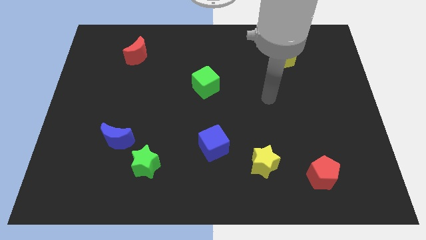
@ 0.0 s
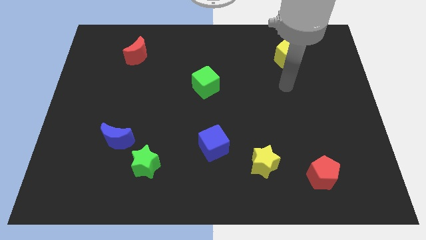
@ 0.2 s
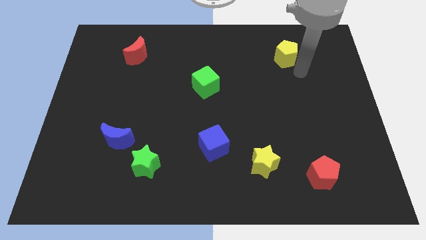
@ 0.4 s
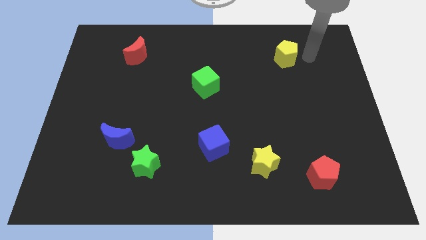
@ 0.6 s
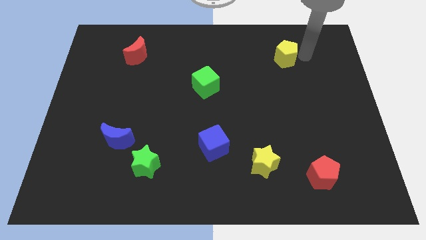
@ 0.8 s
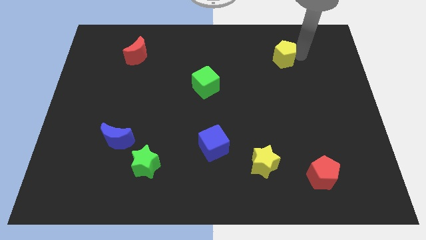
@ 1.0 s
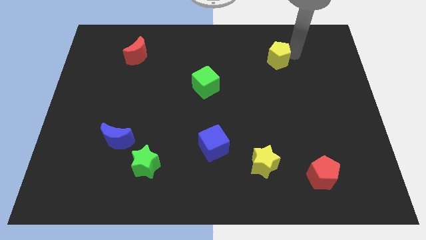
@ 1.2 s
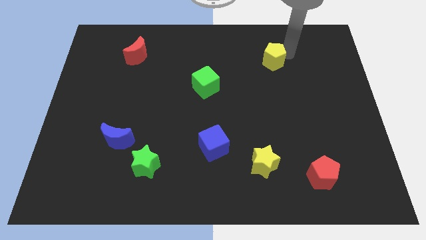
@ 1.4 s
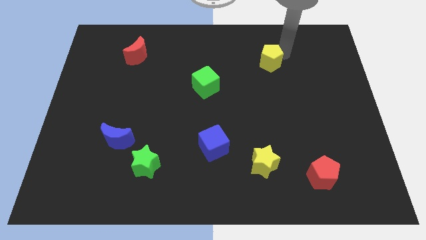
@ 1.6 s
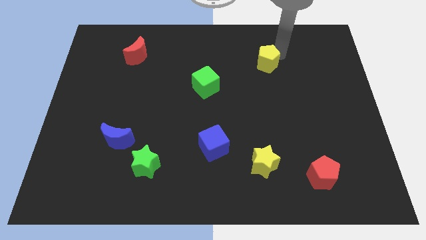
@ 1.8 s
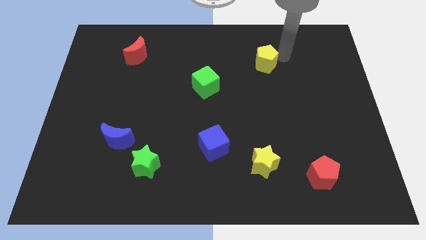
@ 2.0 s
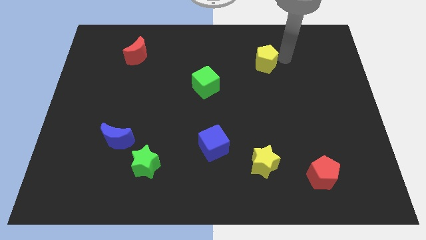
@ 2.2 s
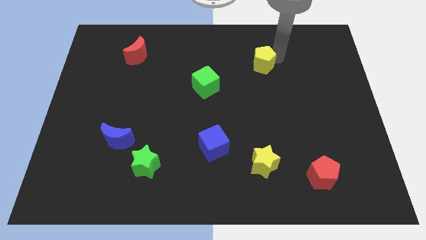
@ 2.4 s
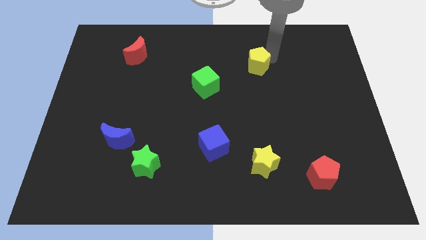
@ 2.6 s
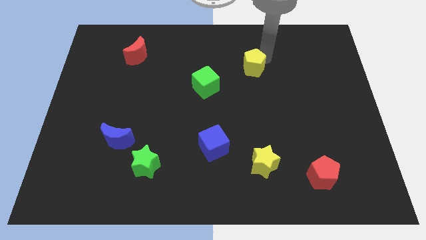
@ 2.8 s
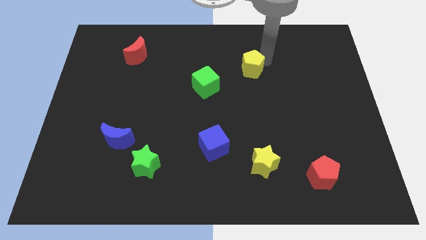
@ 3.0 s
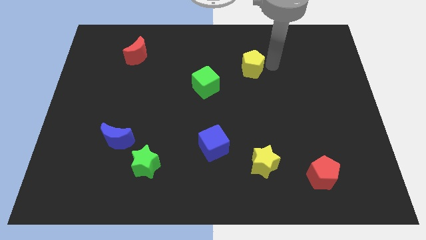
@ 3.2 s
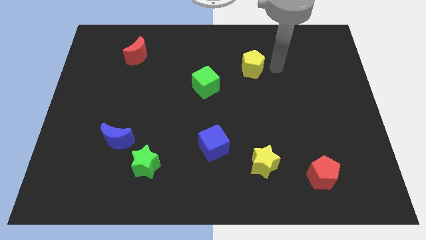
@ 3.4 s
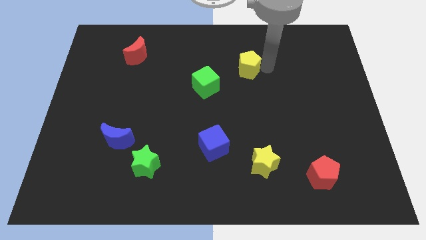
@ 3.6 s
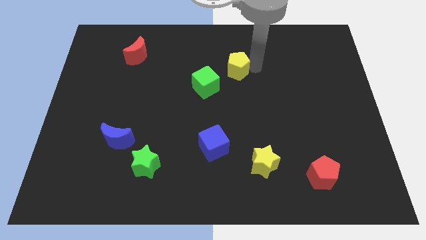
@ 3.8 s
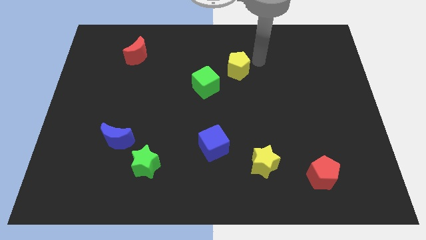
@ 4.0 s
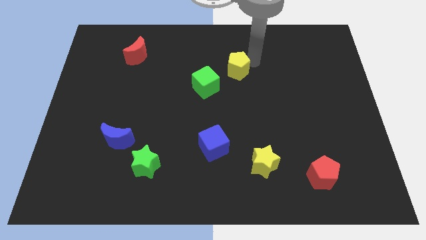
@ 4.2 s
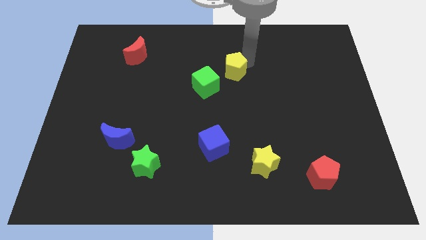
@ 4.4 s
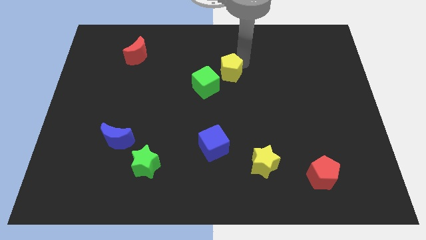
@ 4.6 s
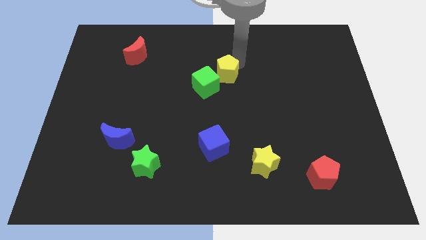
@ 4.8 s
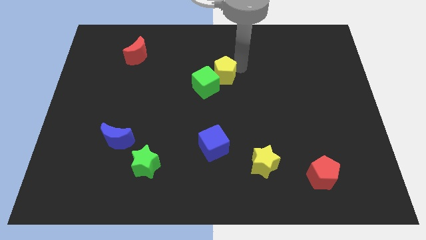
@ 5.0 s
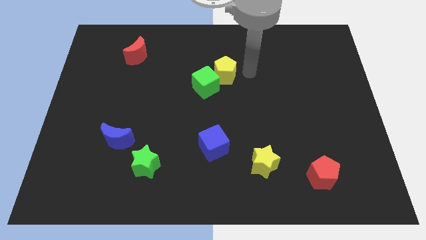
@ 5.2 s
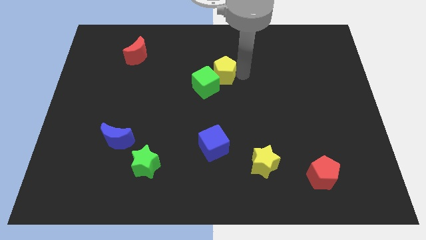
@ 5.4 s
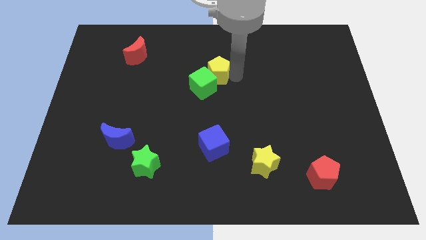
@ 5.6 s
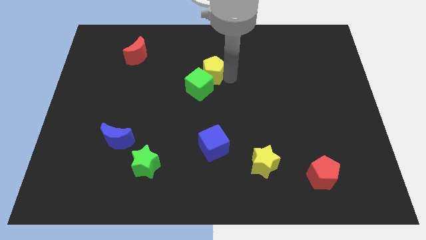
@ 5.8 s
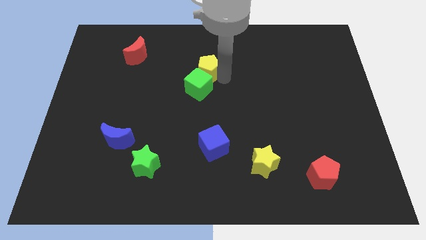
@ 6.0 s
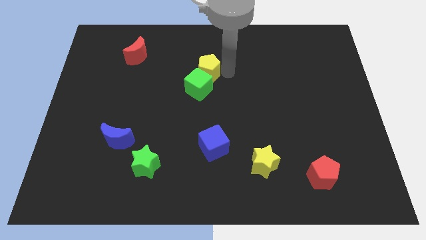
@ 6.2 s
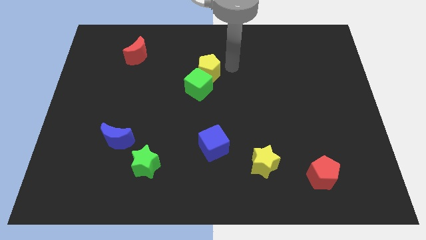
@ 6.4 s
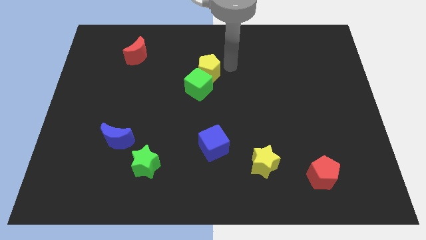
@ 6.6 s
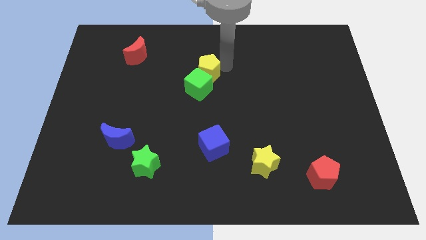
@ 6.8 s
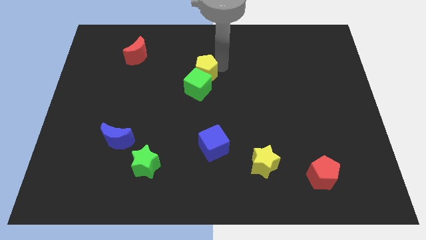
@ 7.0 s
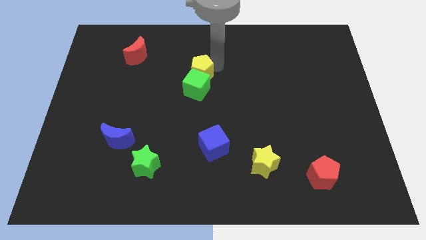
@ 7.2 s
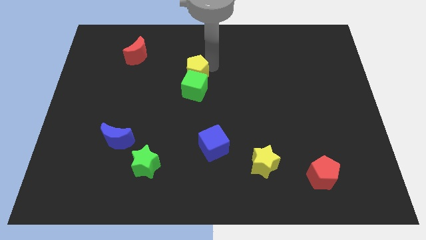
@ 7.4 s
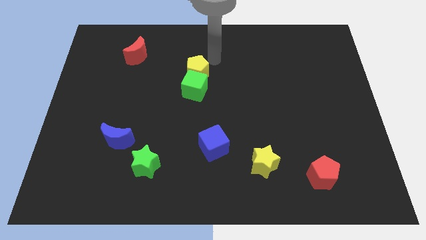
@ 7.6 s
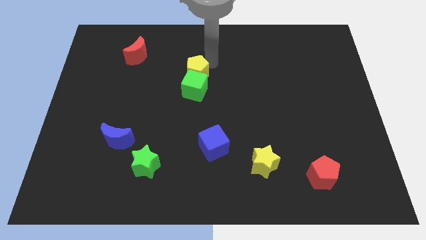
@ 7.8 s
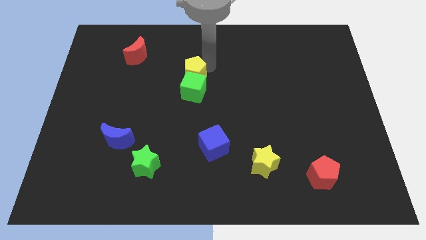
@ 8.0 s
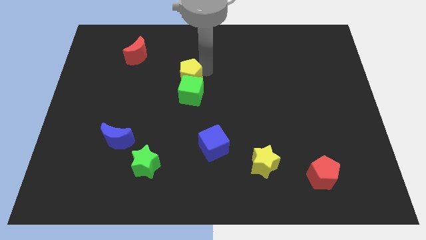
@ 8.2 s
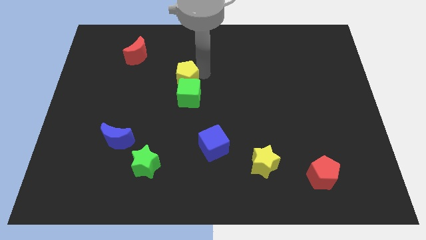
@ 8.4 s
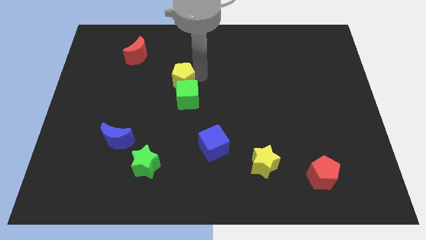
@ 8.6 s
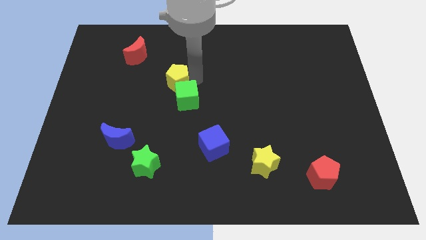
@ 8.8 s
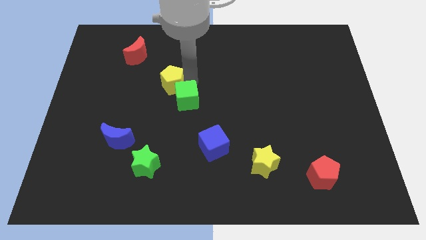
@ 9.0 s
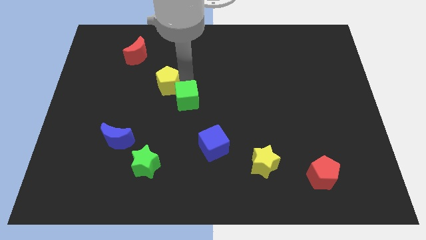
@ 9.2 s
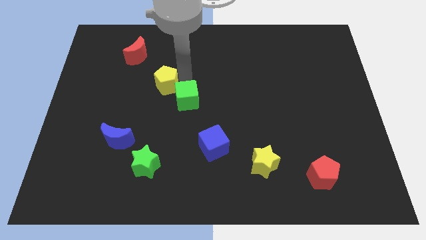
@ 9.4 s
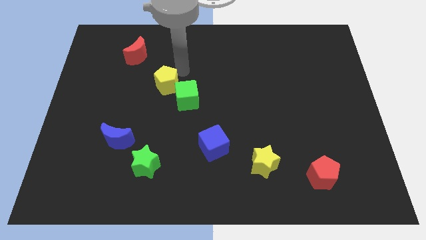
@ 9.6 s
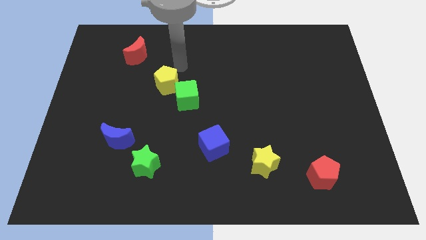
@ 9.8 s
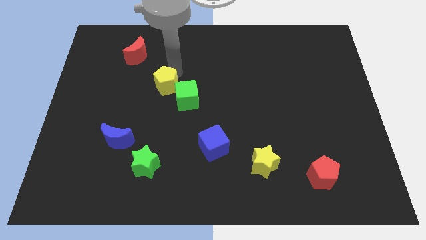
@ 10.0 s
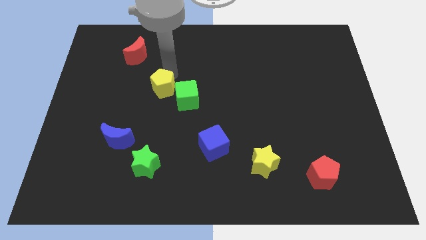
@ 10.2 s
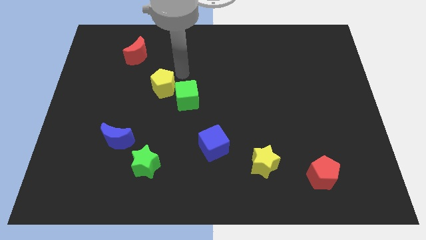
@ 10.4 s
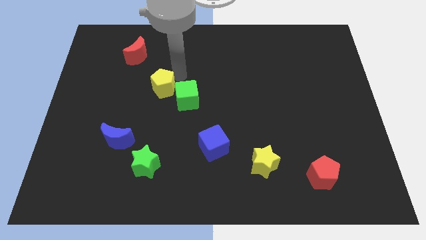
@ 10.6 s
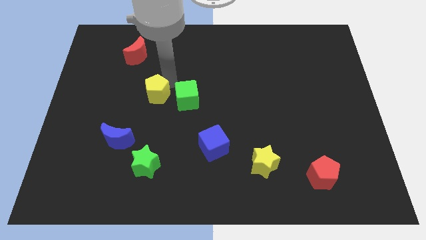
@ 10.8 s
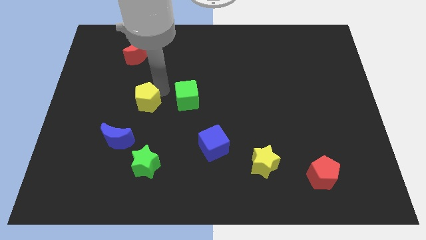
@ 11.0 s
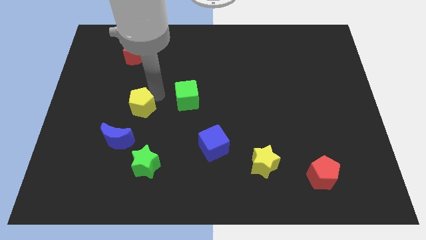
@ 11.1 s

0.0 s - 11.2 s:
slide the yellow pentagon above the blue moon

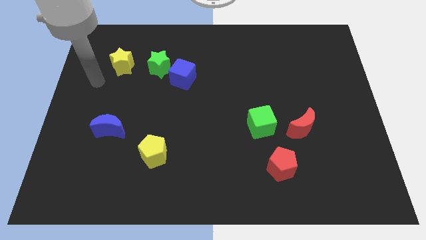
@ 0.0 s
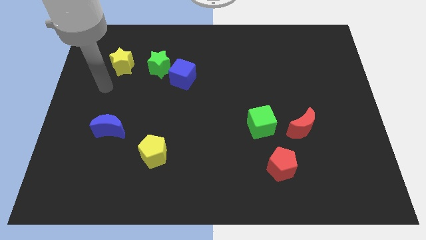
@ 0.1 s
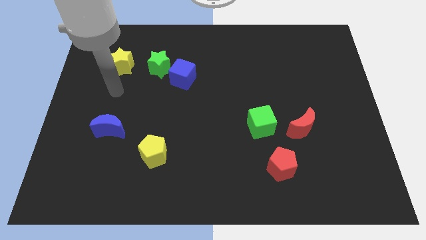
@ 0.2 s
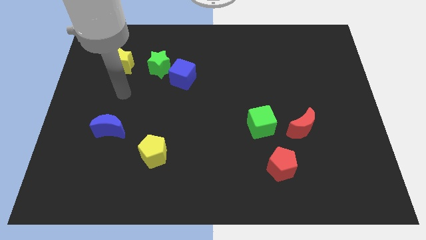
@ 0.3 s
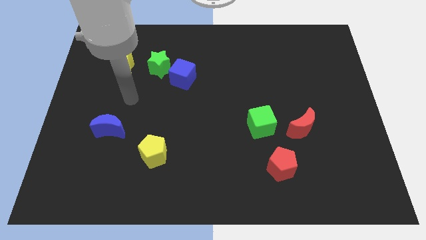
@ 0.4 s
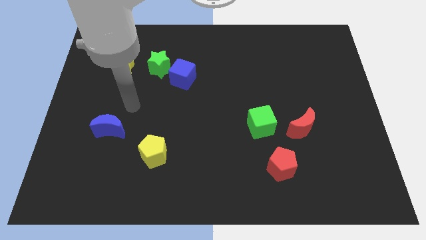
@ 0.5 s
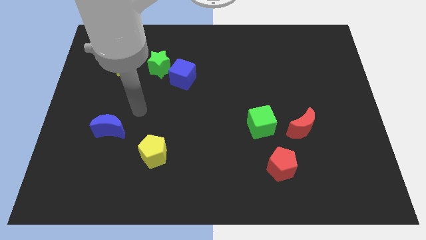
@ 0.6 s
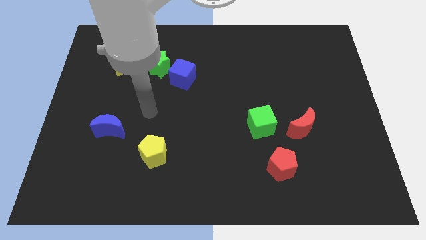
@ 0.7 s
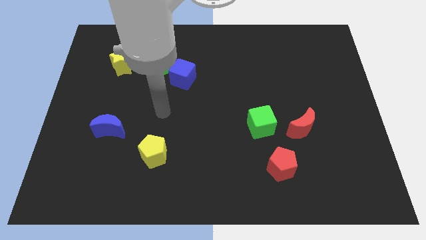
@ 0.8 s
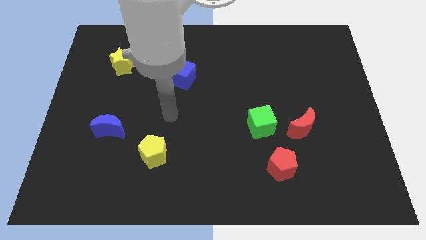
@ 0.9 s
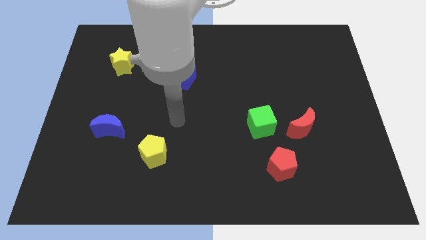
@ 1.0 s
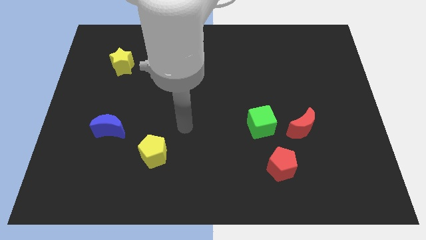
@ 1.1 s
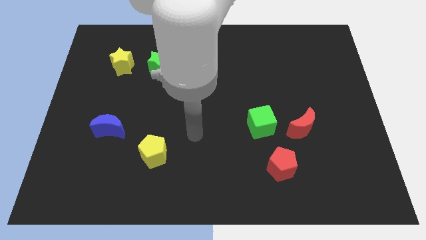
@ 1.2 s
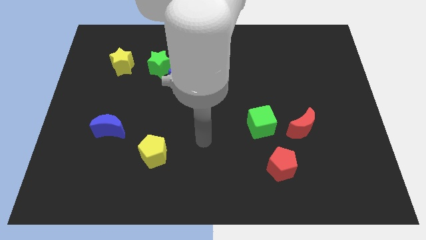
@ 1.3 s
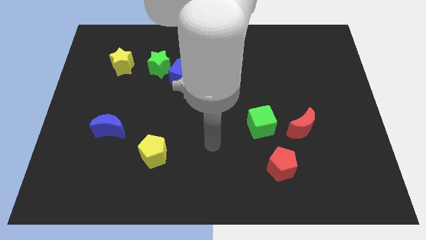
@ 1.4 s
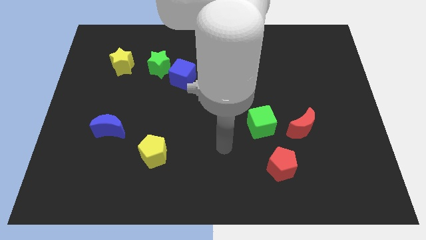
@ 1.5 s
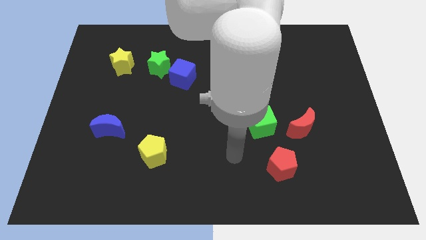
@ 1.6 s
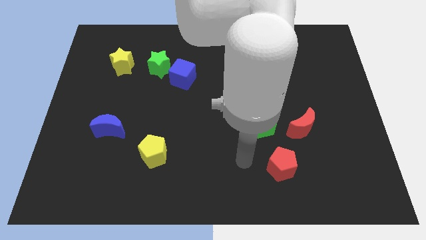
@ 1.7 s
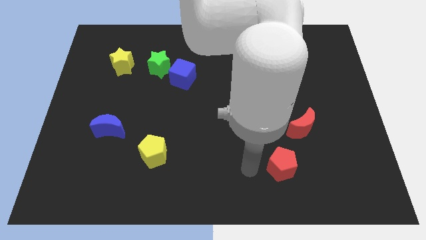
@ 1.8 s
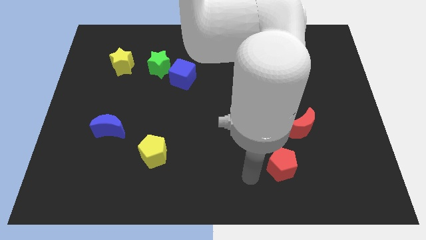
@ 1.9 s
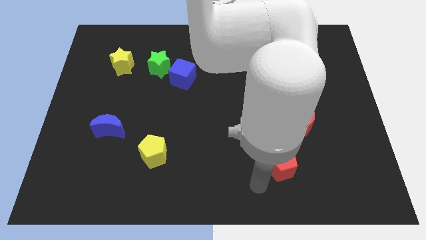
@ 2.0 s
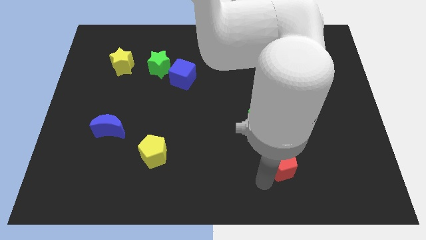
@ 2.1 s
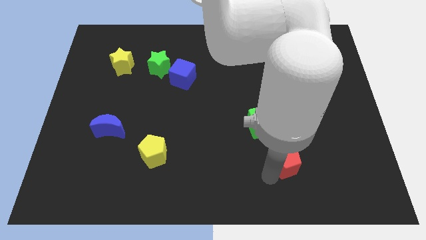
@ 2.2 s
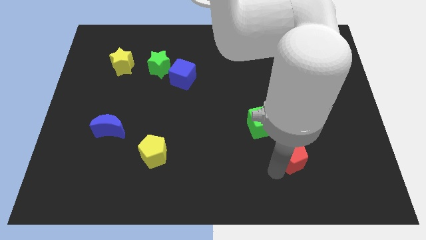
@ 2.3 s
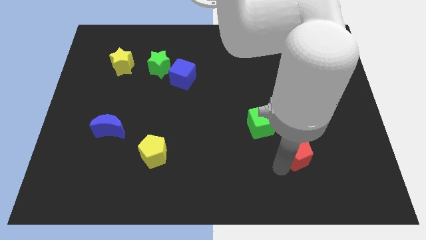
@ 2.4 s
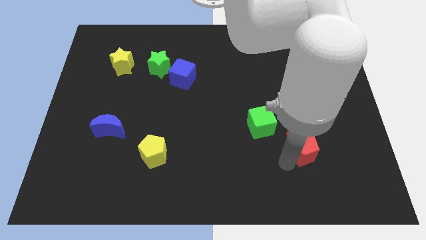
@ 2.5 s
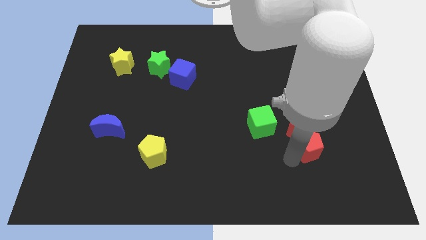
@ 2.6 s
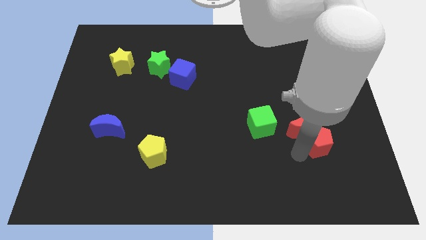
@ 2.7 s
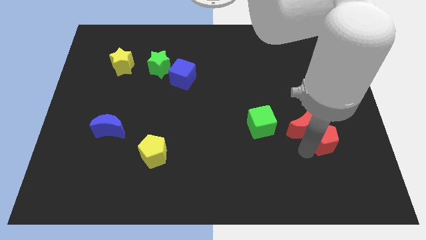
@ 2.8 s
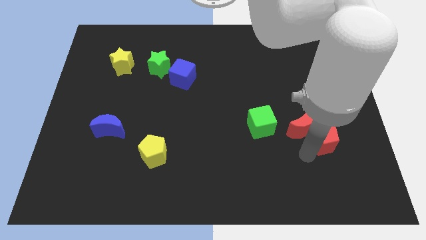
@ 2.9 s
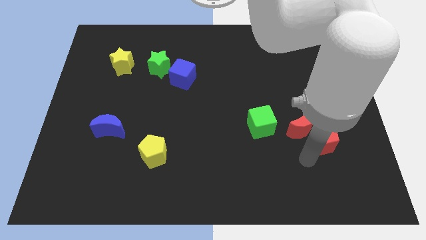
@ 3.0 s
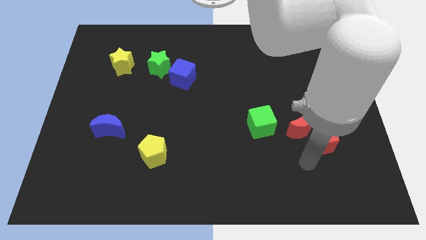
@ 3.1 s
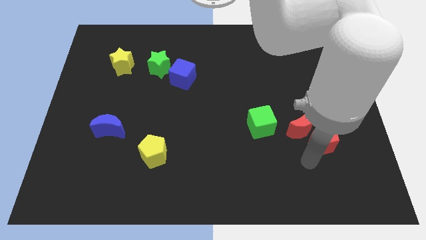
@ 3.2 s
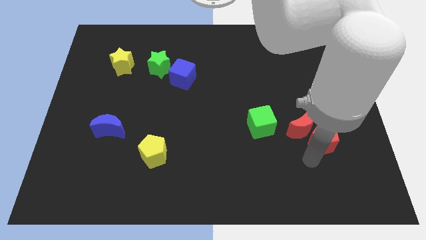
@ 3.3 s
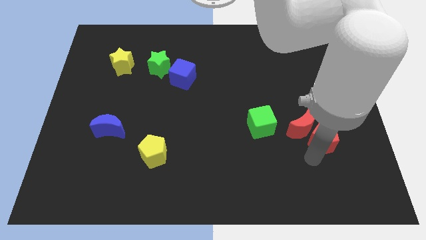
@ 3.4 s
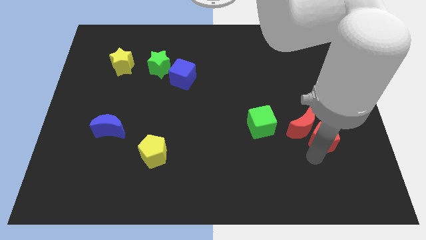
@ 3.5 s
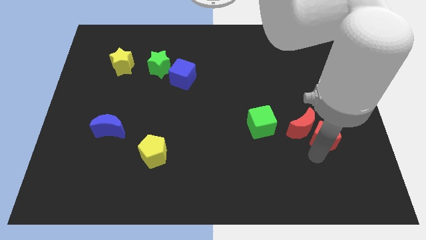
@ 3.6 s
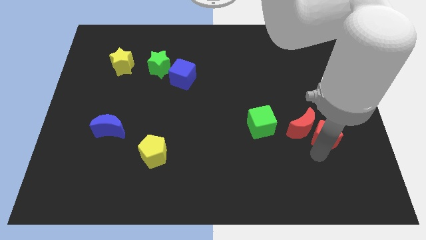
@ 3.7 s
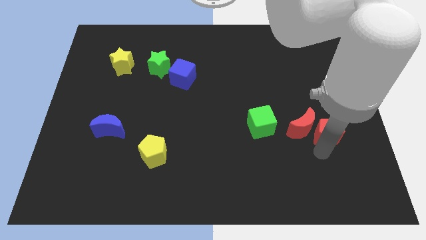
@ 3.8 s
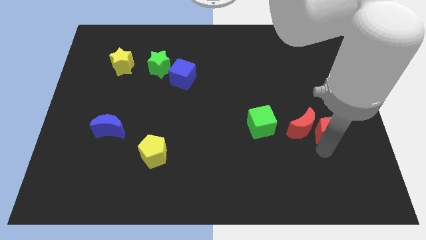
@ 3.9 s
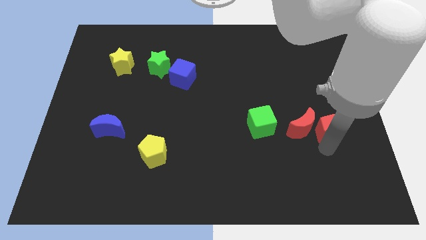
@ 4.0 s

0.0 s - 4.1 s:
slide the red pentagon to the top right side of the red moon
